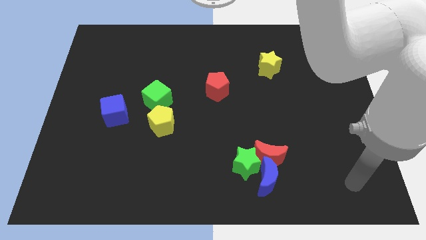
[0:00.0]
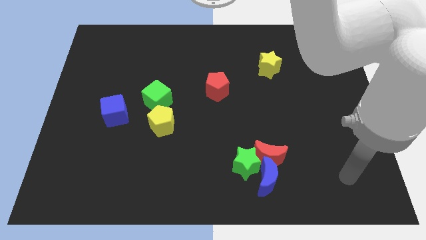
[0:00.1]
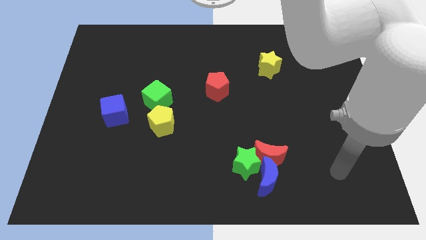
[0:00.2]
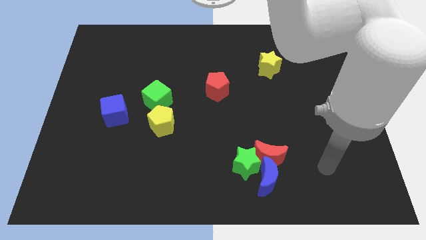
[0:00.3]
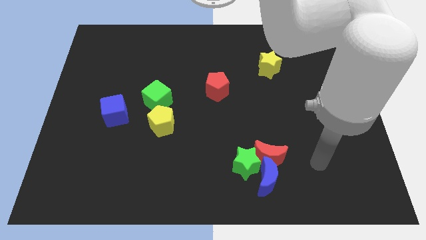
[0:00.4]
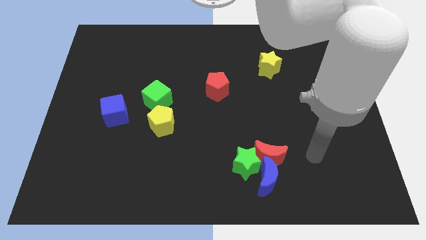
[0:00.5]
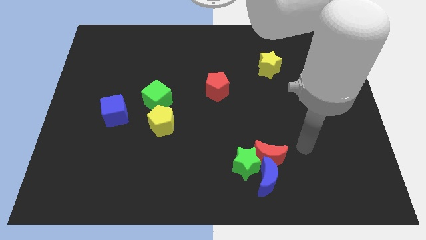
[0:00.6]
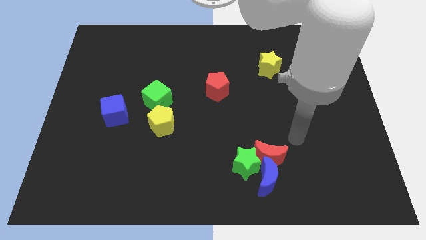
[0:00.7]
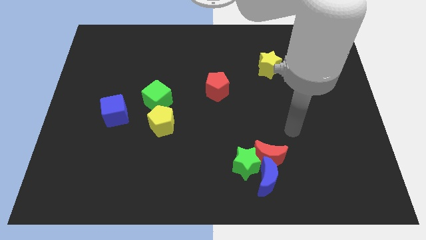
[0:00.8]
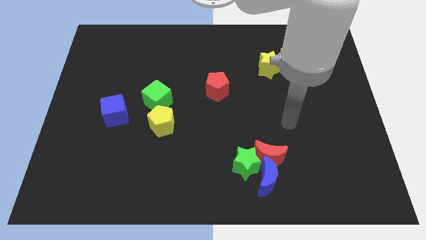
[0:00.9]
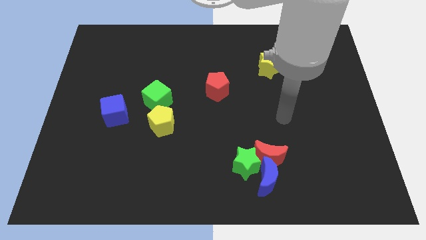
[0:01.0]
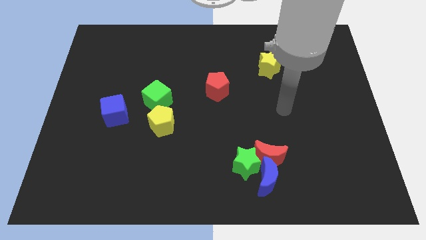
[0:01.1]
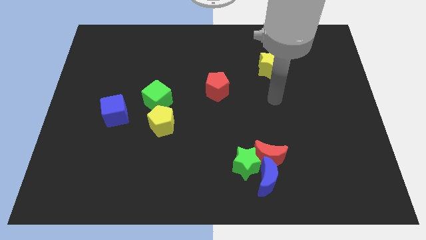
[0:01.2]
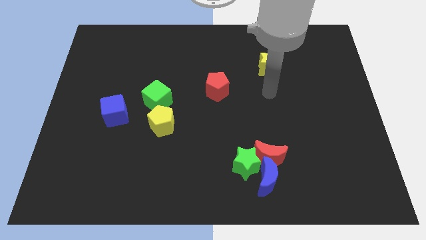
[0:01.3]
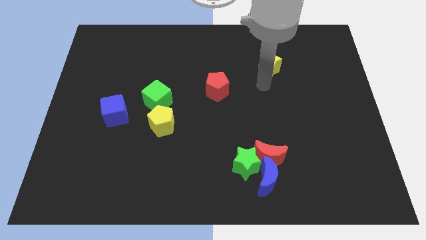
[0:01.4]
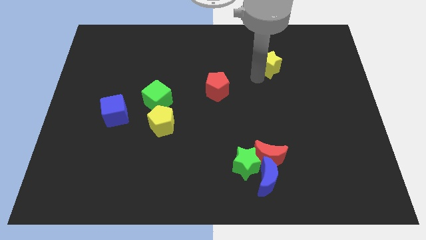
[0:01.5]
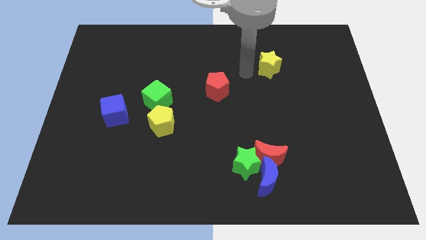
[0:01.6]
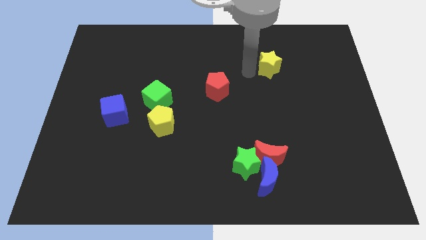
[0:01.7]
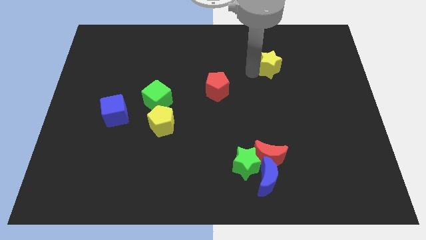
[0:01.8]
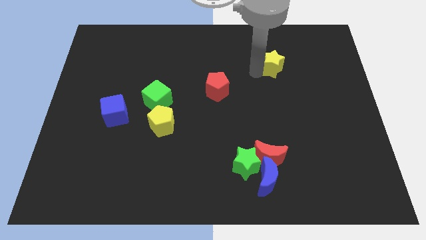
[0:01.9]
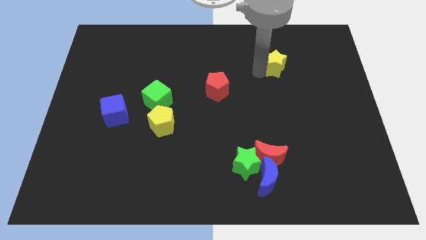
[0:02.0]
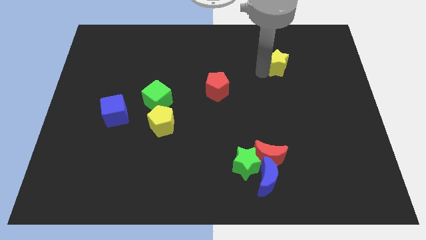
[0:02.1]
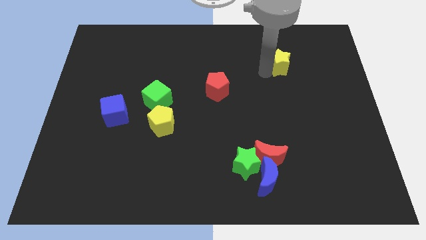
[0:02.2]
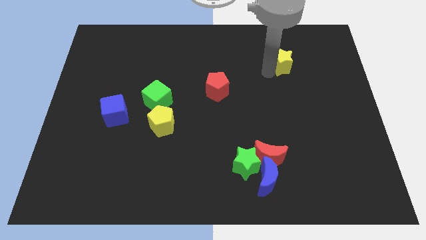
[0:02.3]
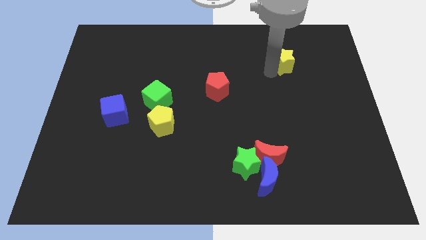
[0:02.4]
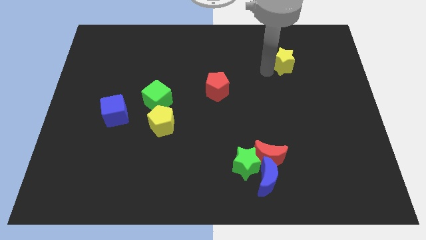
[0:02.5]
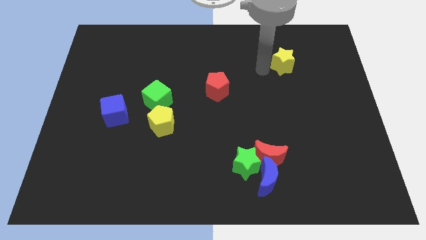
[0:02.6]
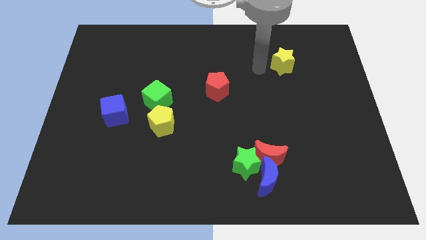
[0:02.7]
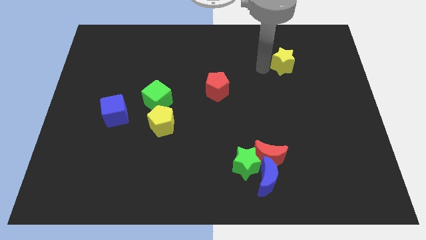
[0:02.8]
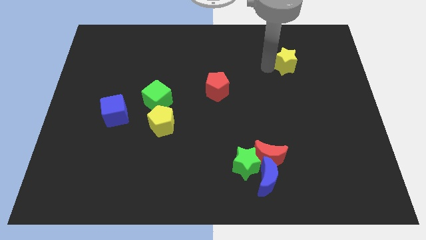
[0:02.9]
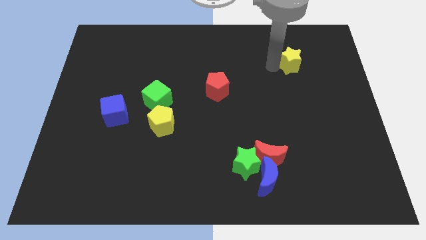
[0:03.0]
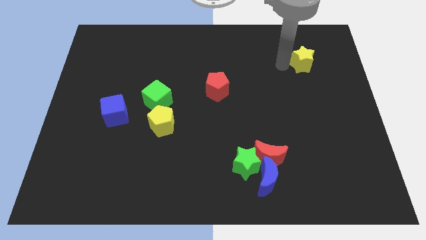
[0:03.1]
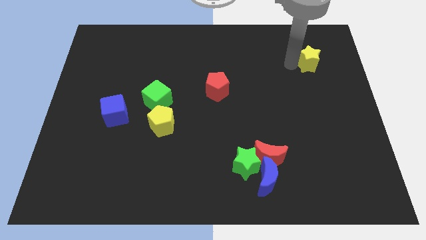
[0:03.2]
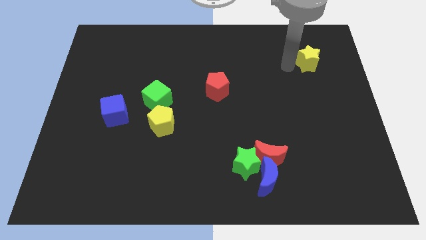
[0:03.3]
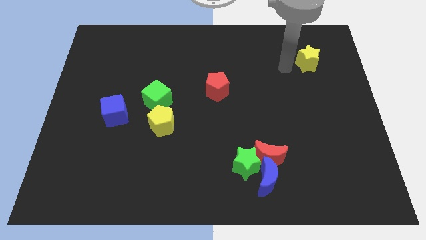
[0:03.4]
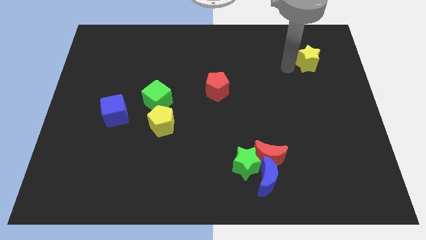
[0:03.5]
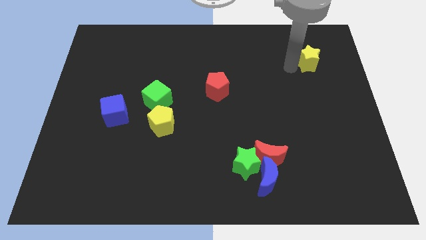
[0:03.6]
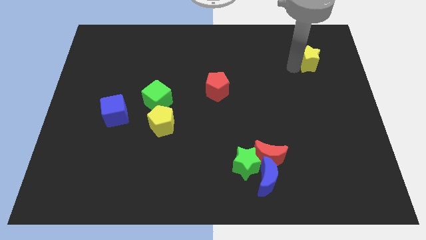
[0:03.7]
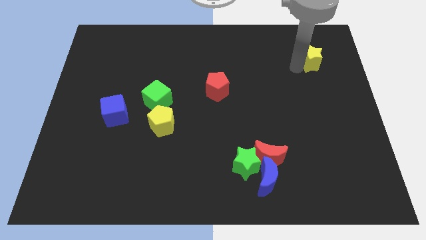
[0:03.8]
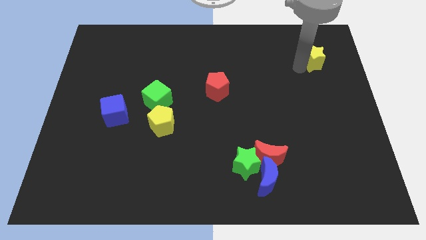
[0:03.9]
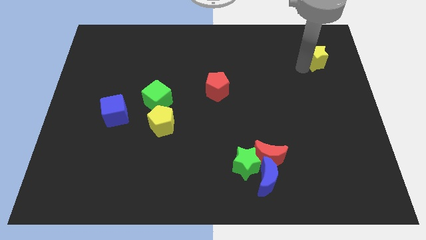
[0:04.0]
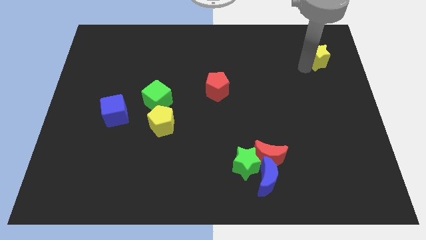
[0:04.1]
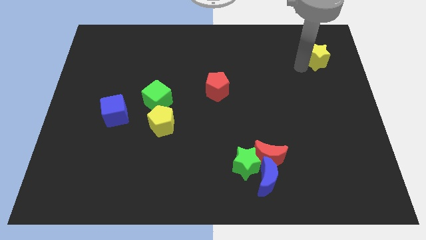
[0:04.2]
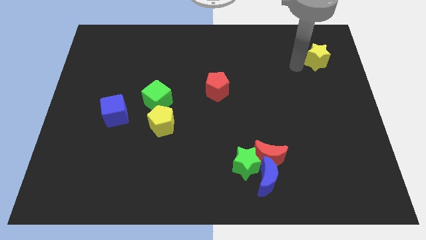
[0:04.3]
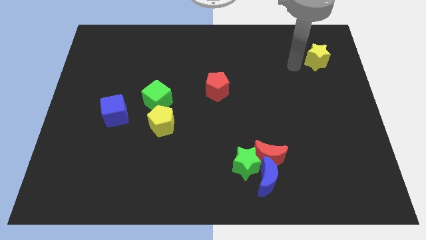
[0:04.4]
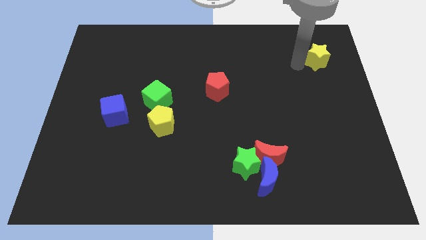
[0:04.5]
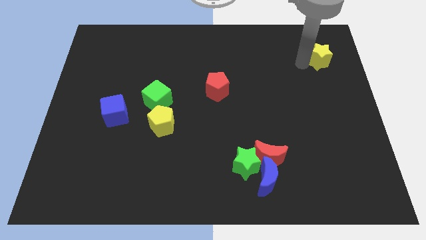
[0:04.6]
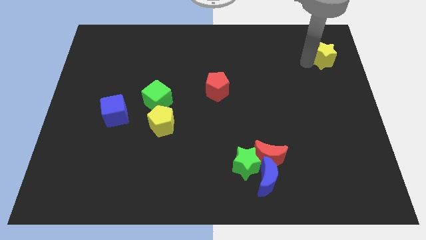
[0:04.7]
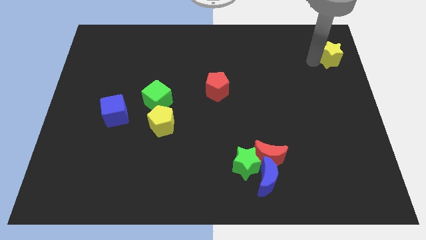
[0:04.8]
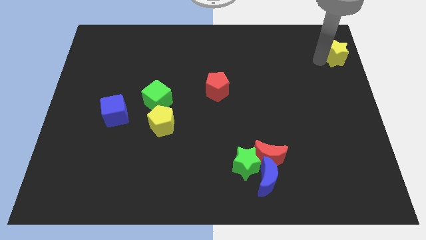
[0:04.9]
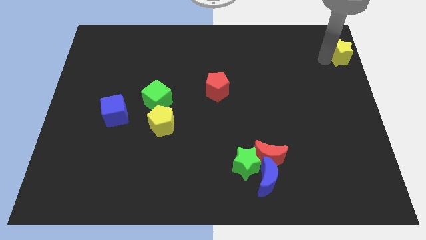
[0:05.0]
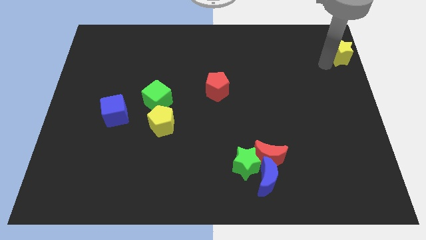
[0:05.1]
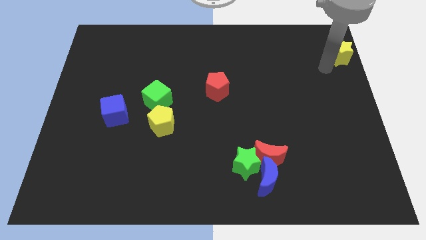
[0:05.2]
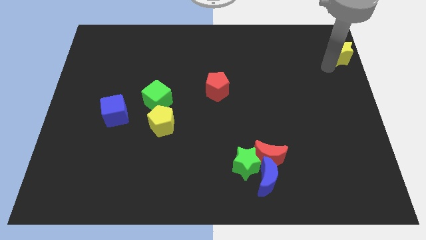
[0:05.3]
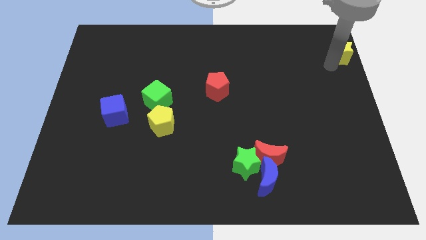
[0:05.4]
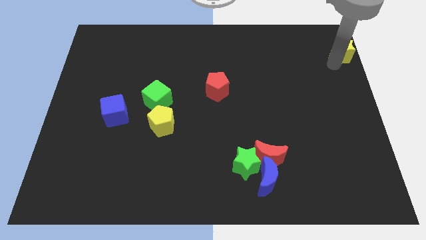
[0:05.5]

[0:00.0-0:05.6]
slide the yellow star to the top right

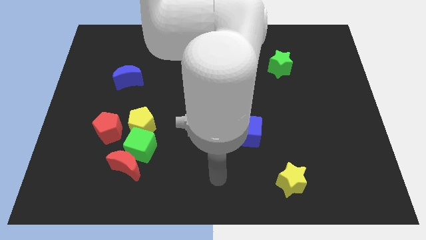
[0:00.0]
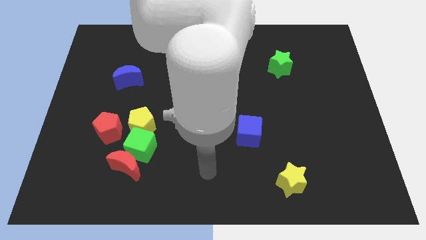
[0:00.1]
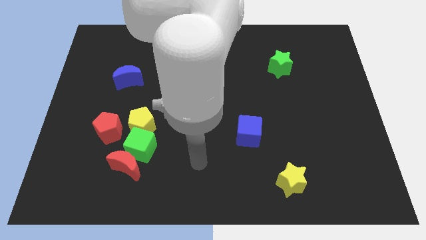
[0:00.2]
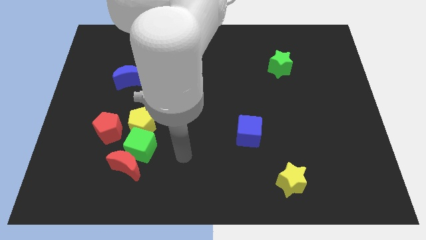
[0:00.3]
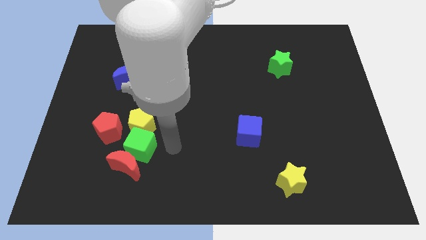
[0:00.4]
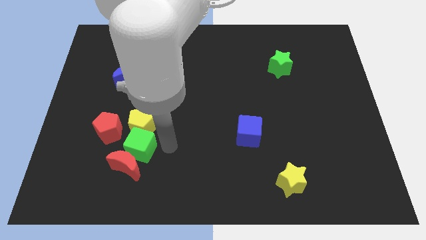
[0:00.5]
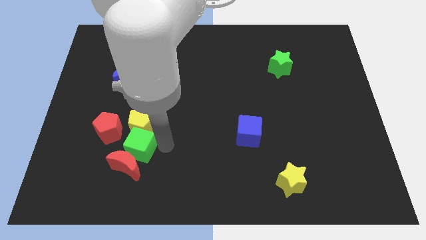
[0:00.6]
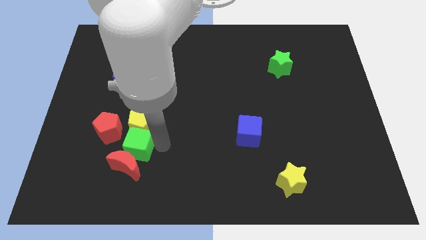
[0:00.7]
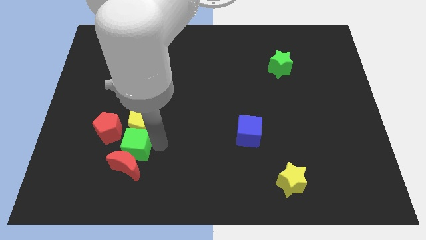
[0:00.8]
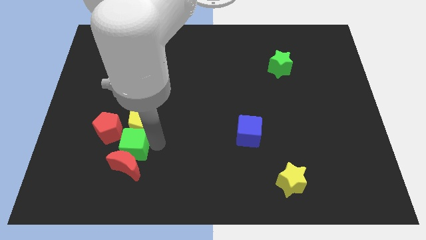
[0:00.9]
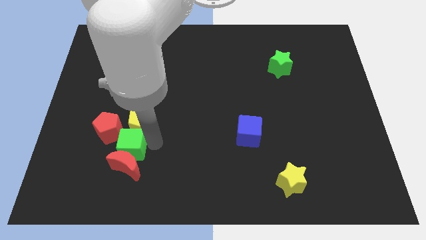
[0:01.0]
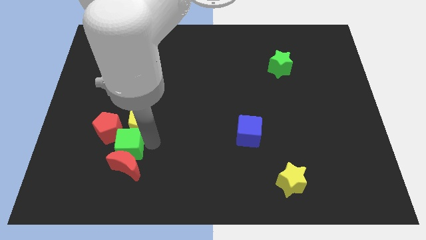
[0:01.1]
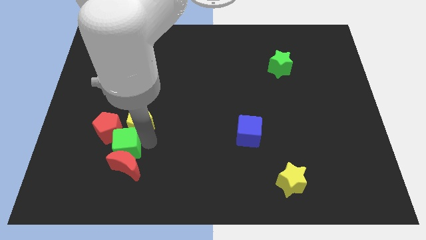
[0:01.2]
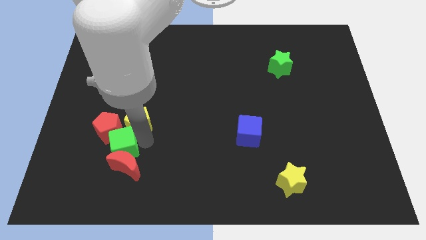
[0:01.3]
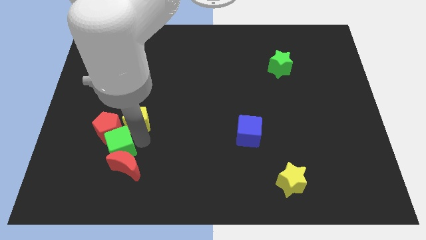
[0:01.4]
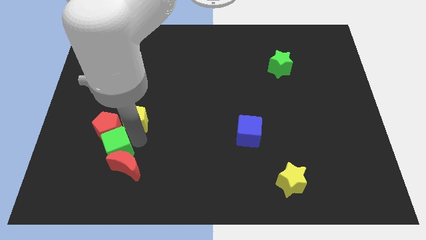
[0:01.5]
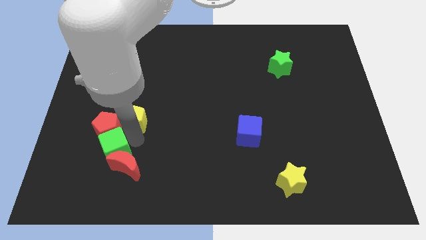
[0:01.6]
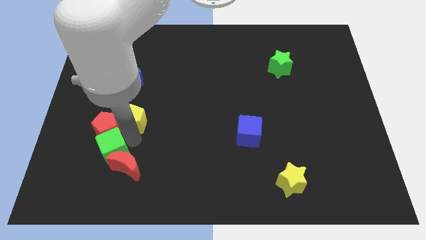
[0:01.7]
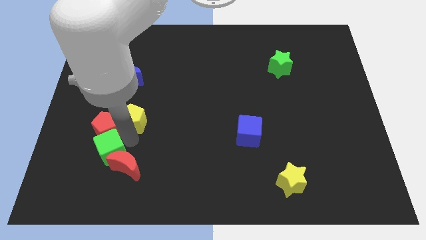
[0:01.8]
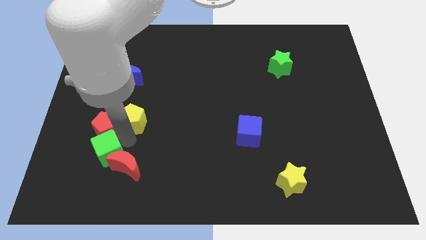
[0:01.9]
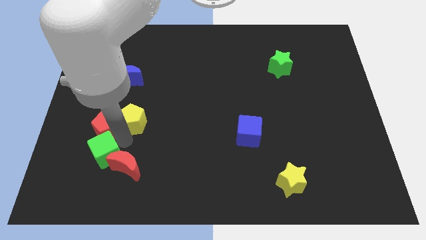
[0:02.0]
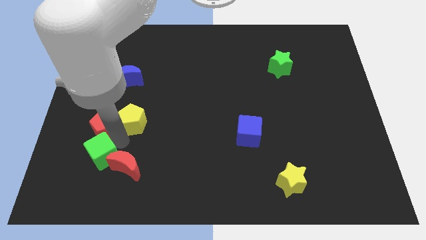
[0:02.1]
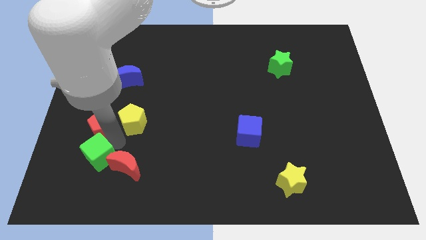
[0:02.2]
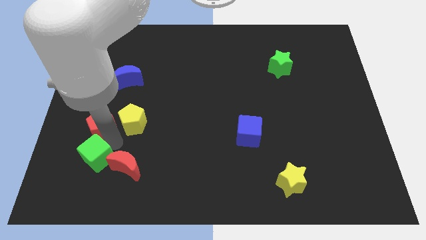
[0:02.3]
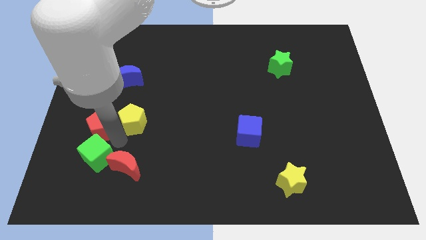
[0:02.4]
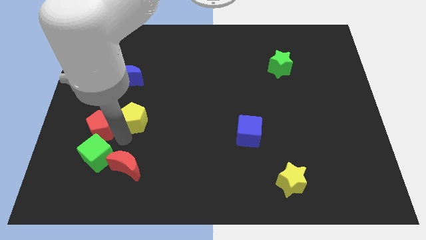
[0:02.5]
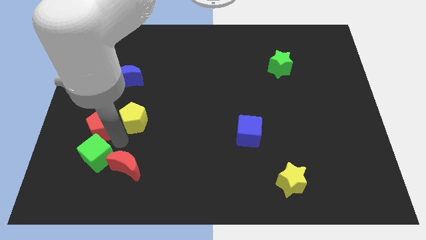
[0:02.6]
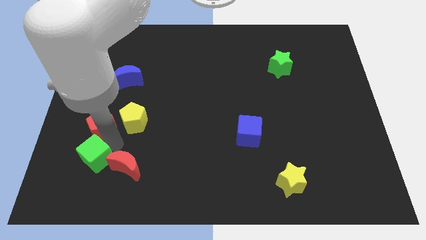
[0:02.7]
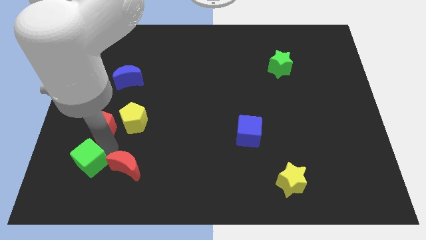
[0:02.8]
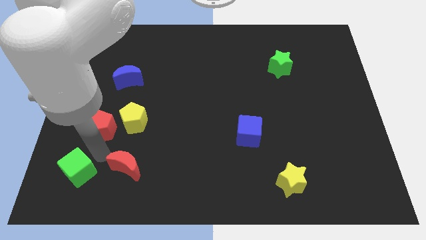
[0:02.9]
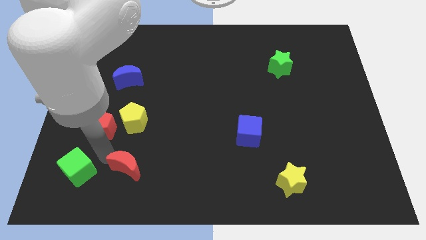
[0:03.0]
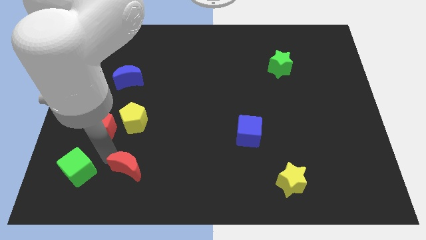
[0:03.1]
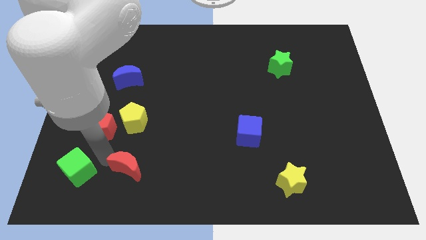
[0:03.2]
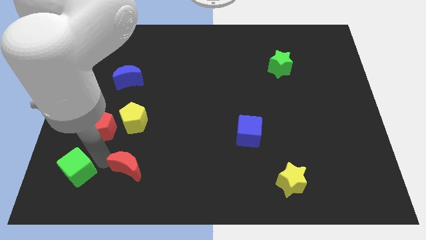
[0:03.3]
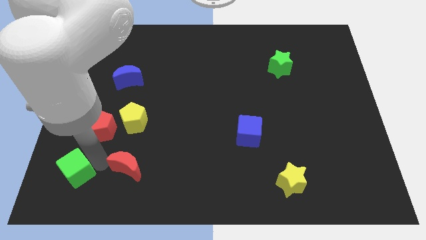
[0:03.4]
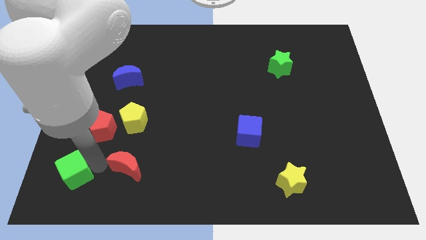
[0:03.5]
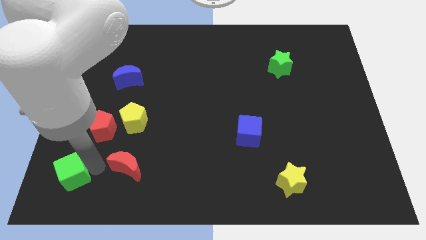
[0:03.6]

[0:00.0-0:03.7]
move the green cube to the bottom left of the board
